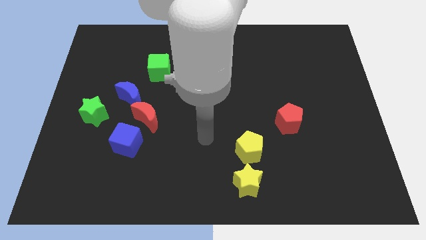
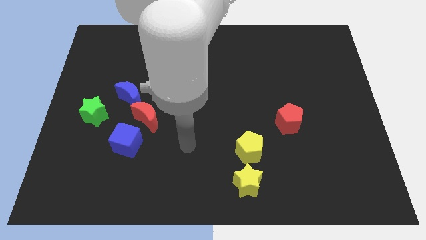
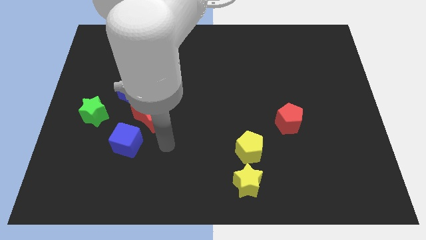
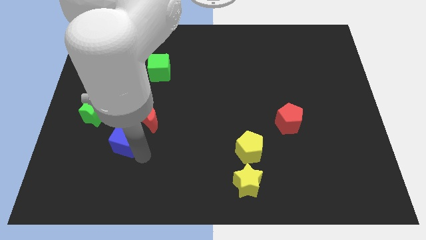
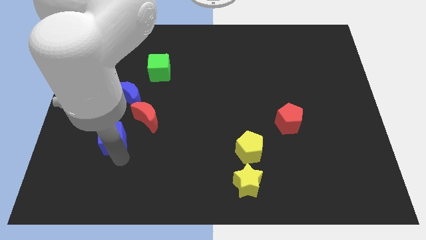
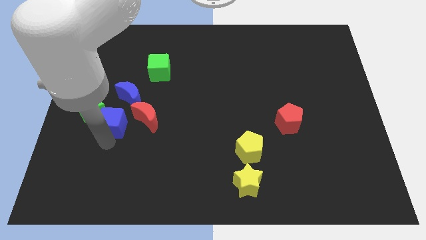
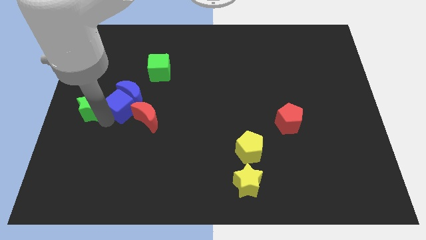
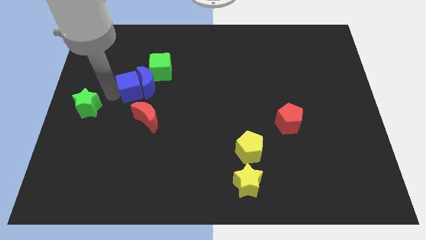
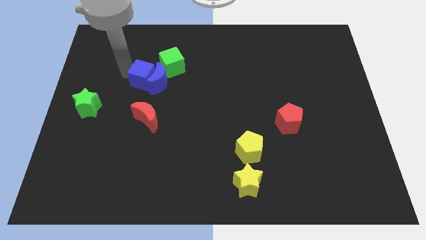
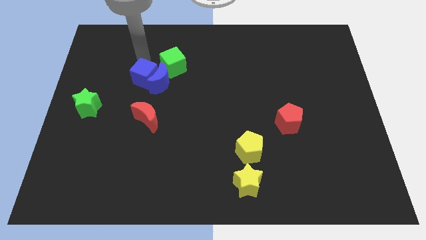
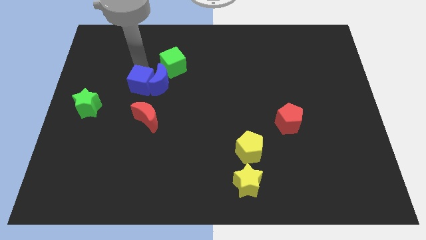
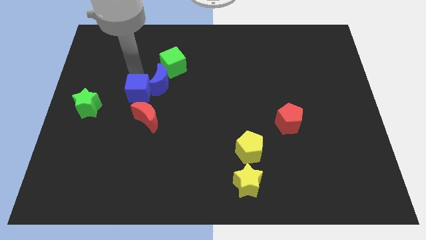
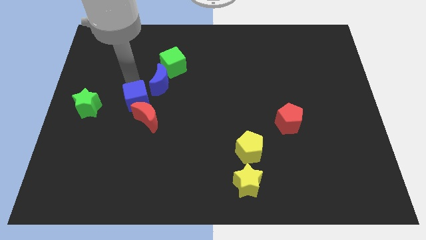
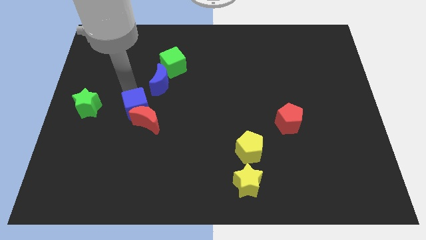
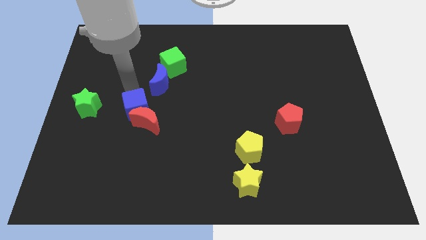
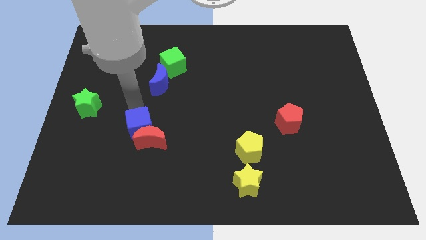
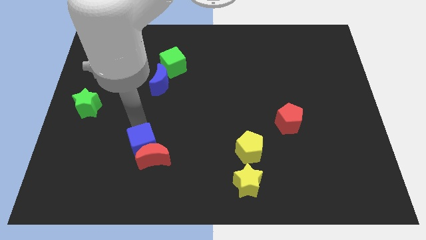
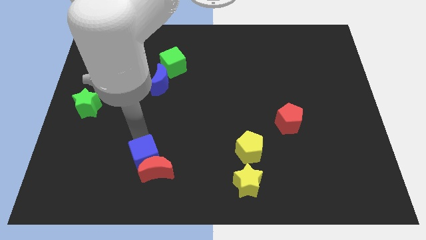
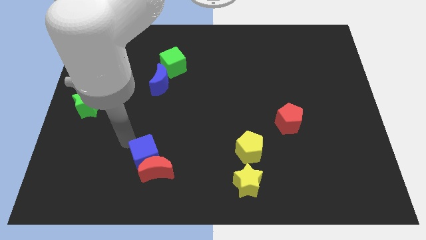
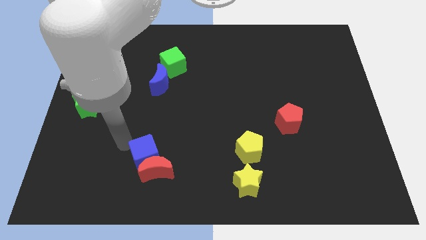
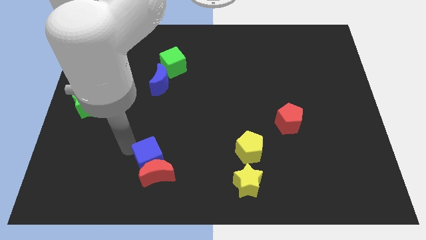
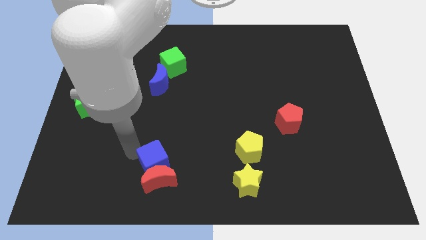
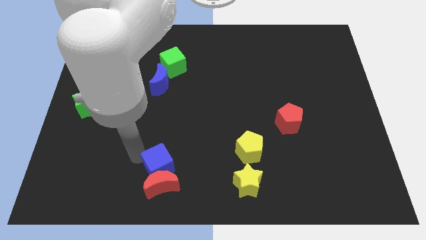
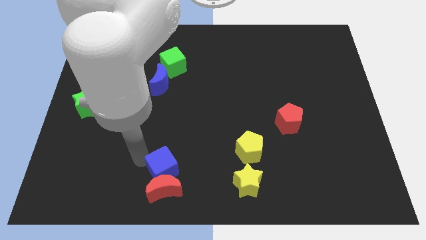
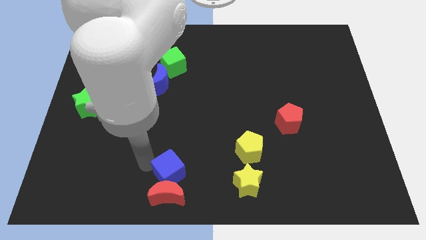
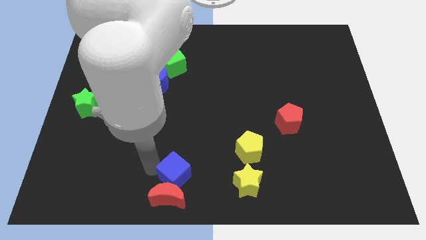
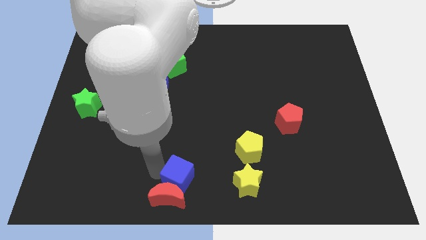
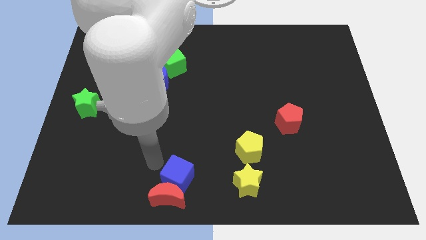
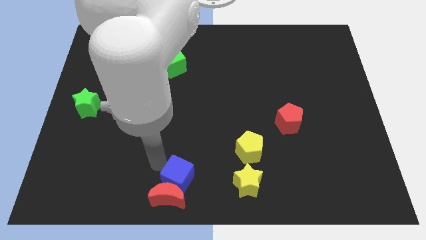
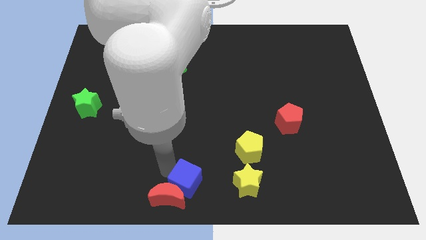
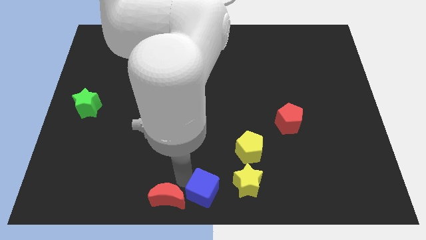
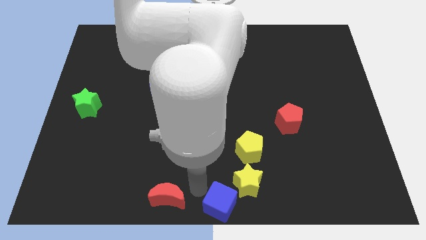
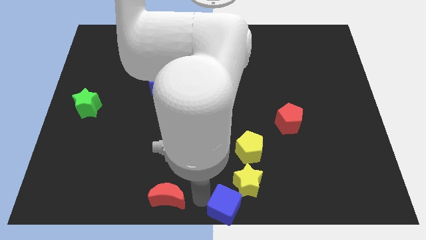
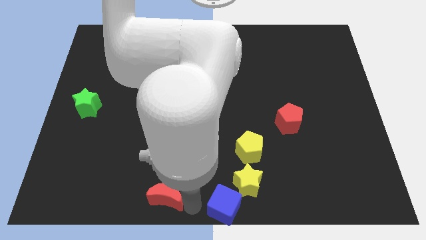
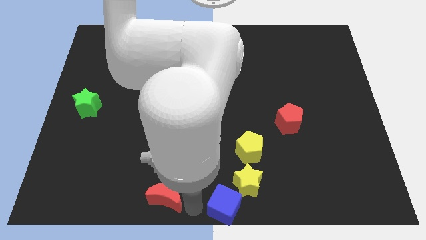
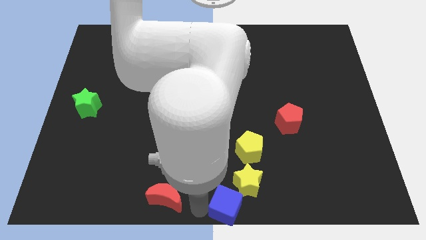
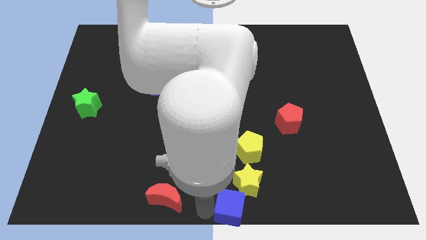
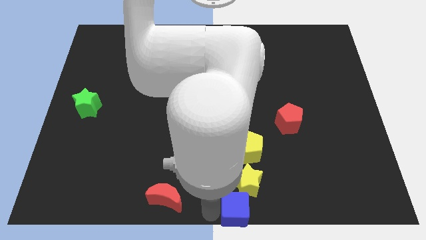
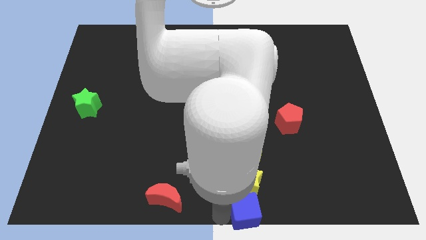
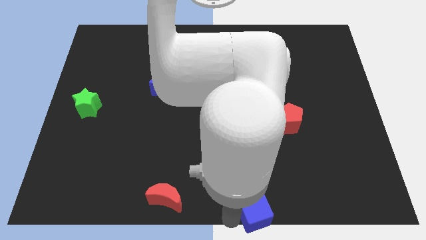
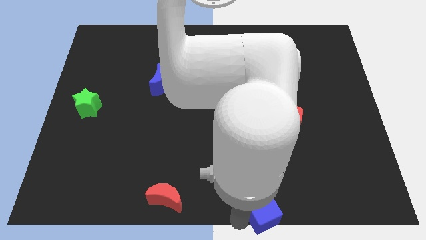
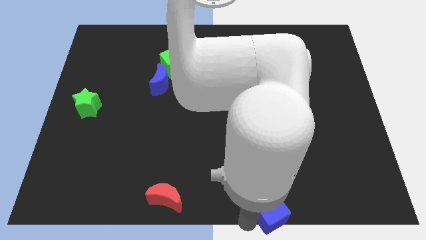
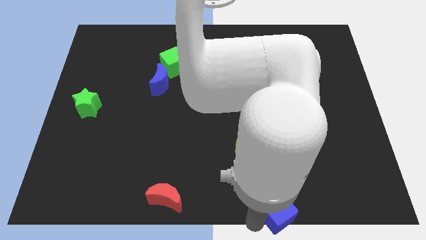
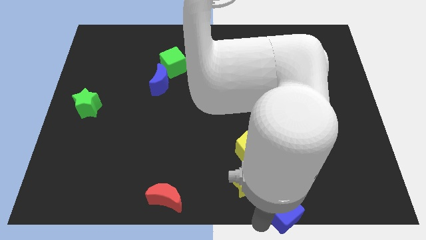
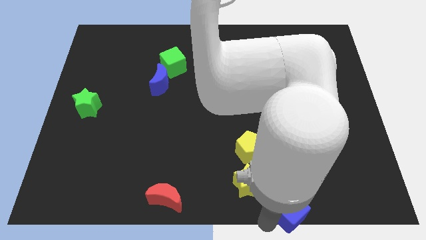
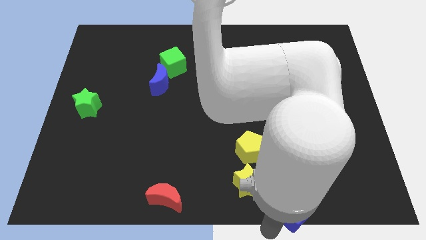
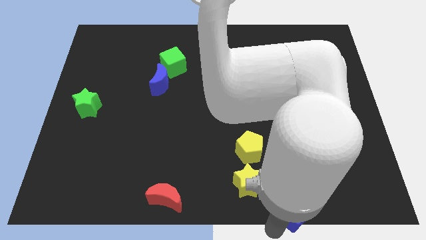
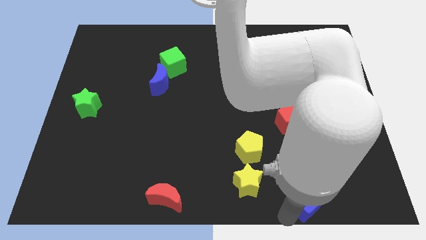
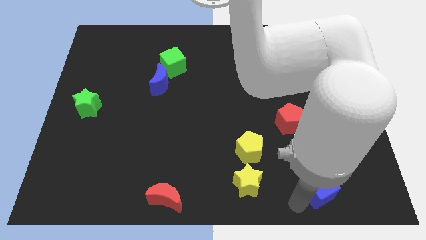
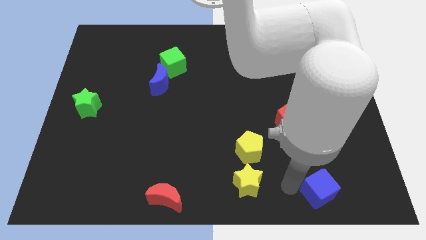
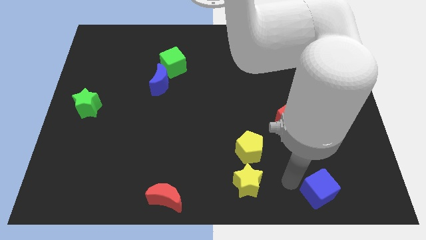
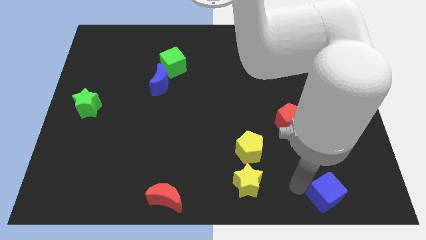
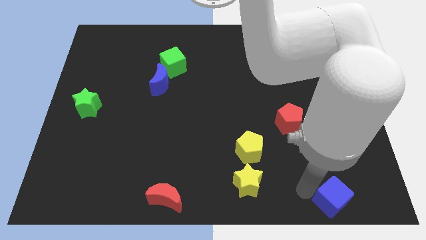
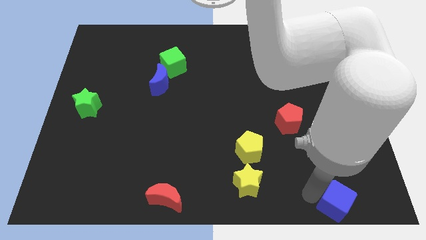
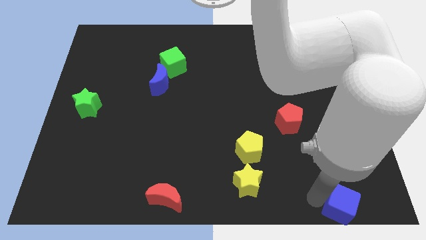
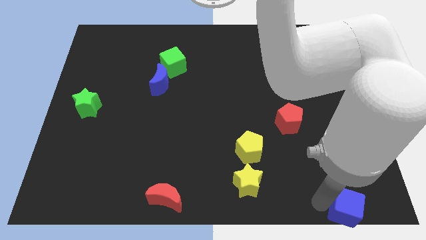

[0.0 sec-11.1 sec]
move the blue cube to the bottom right of the board
